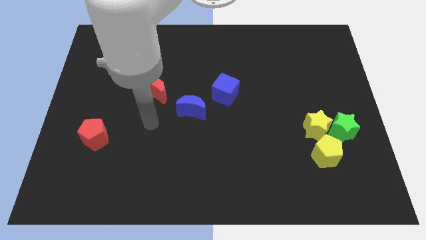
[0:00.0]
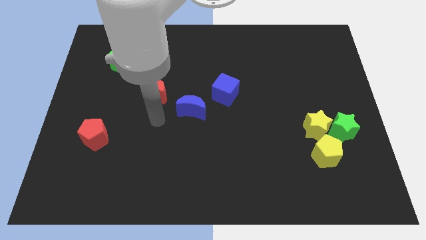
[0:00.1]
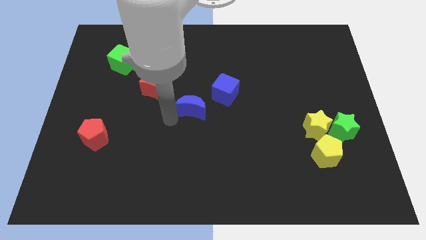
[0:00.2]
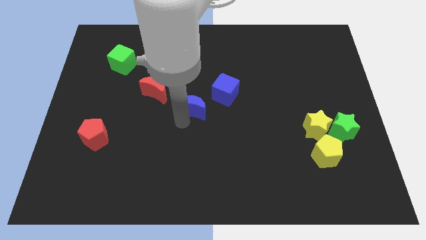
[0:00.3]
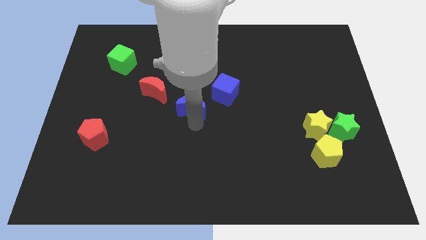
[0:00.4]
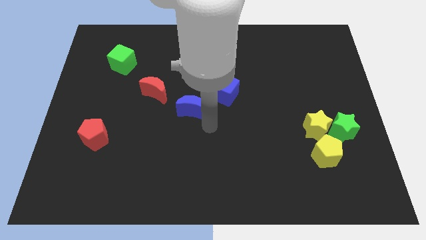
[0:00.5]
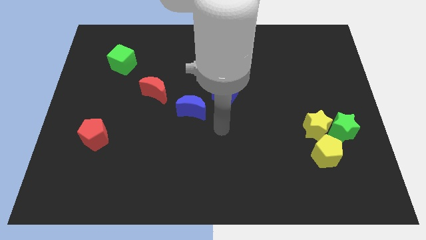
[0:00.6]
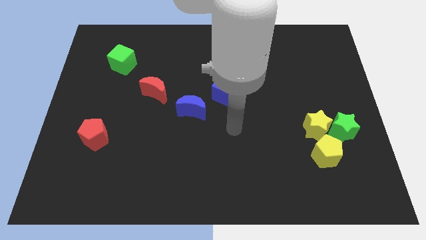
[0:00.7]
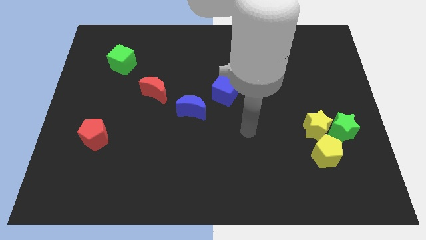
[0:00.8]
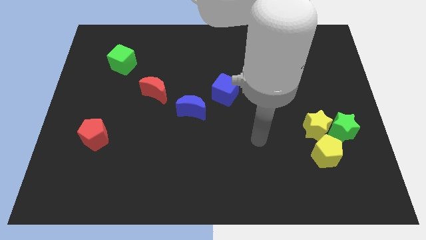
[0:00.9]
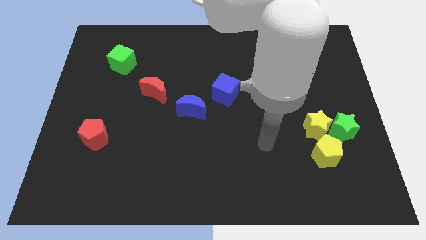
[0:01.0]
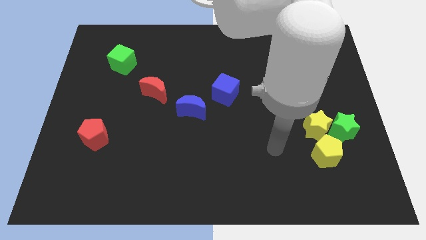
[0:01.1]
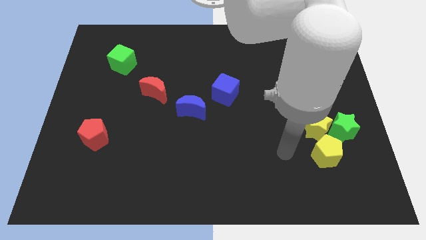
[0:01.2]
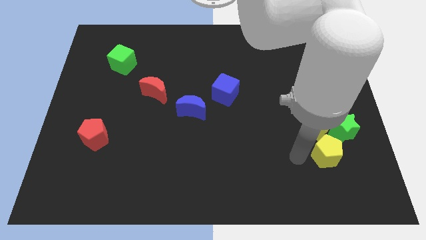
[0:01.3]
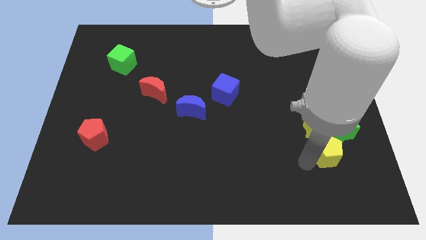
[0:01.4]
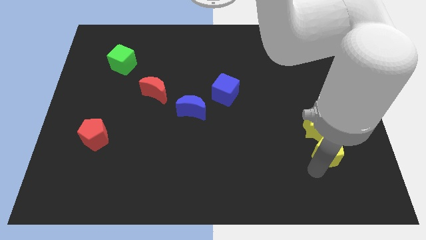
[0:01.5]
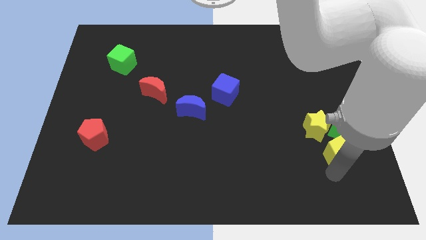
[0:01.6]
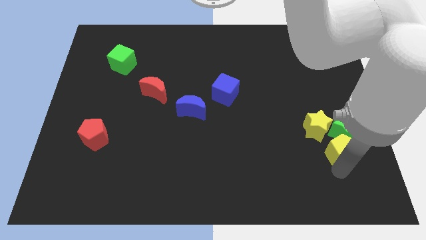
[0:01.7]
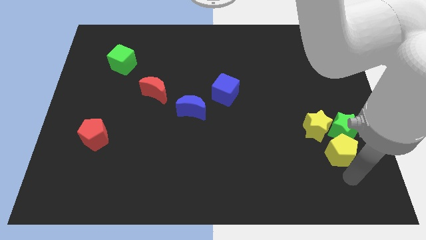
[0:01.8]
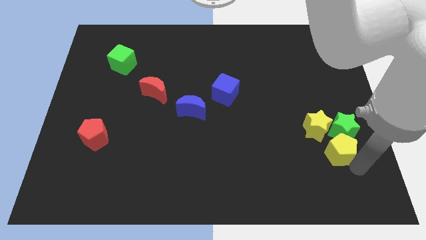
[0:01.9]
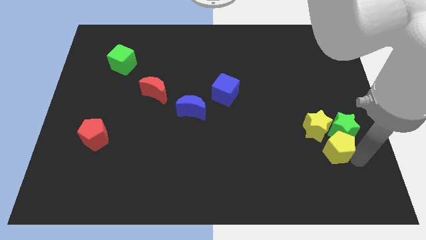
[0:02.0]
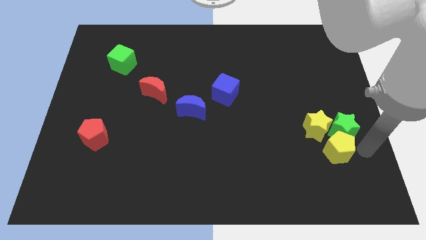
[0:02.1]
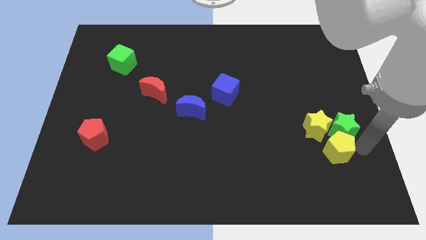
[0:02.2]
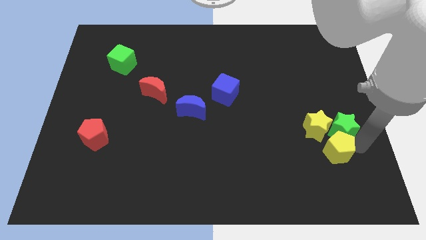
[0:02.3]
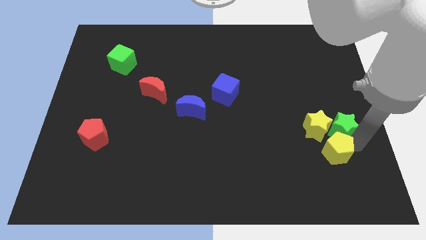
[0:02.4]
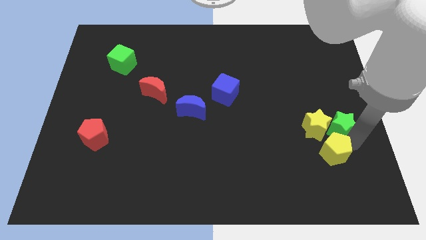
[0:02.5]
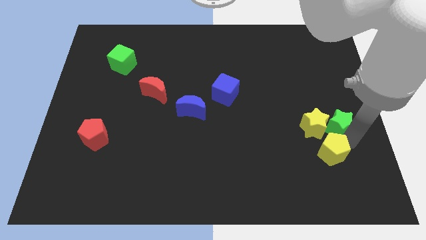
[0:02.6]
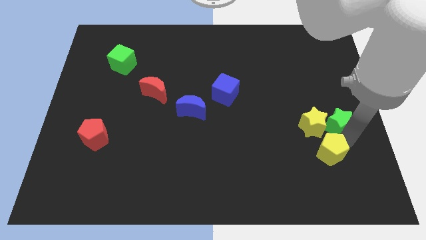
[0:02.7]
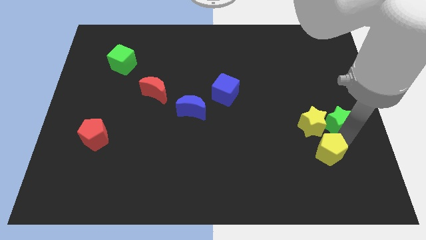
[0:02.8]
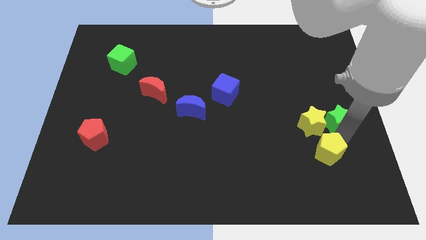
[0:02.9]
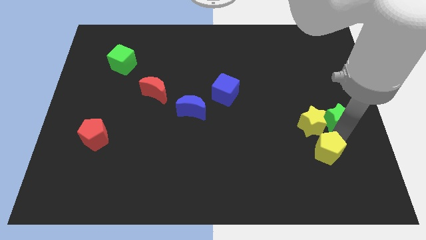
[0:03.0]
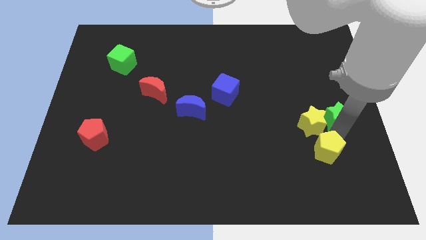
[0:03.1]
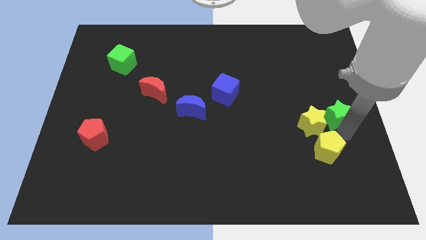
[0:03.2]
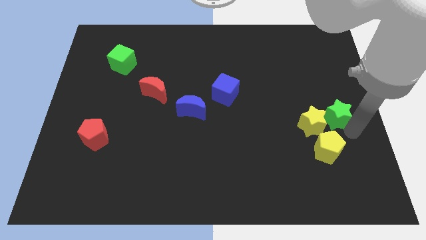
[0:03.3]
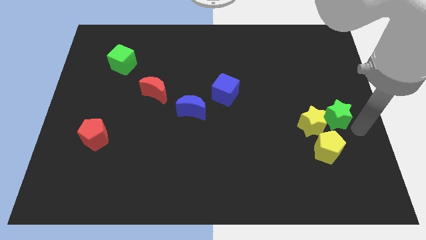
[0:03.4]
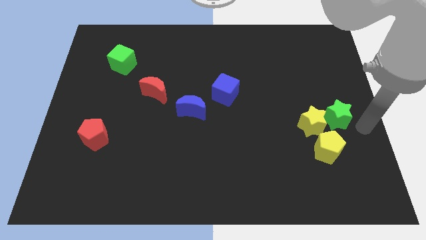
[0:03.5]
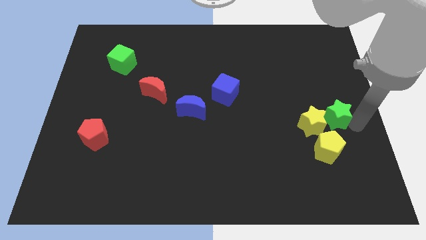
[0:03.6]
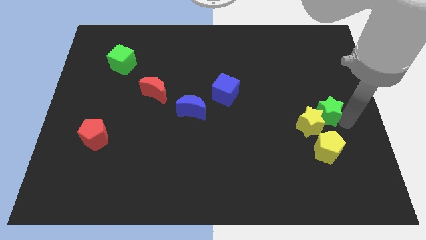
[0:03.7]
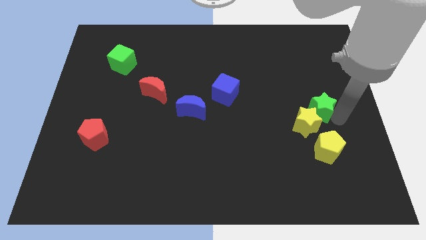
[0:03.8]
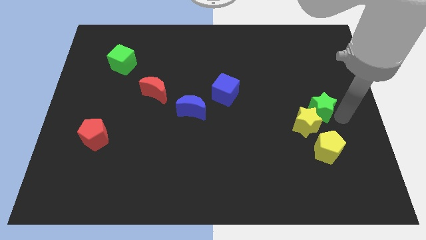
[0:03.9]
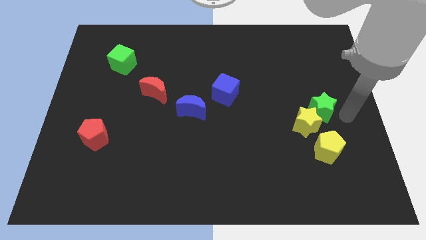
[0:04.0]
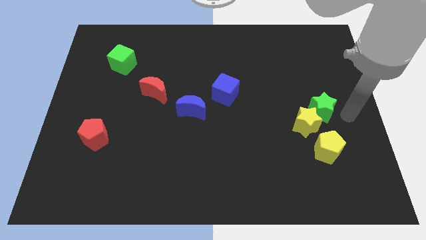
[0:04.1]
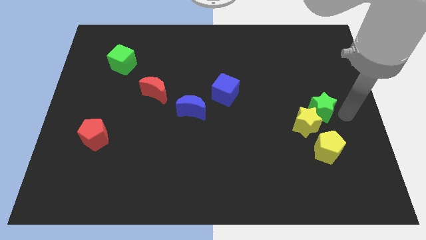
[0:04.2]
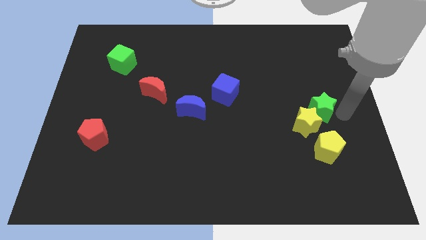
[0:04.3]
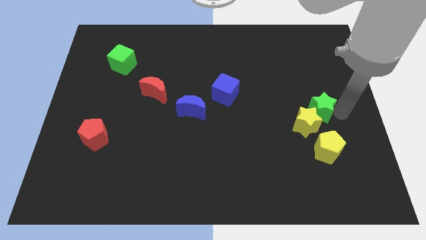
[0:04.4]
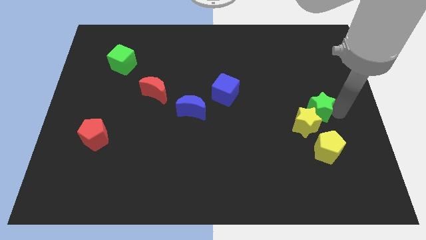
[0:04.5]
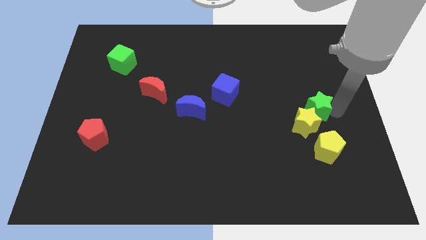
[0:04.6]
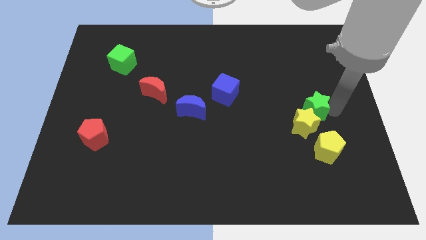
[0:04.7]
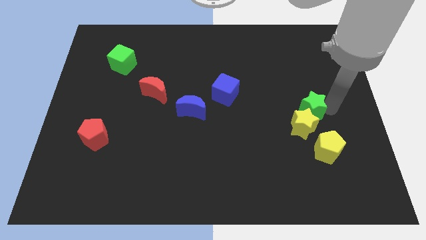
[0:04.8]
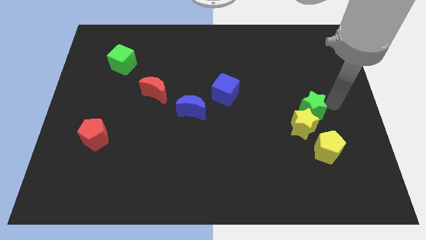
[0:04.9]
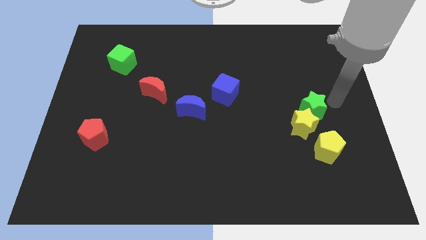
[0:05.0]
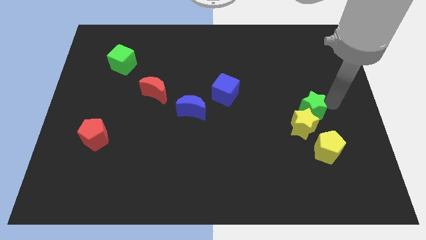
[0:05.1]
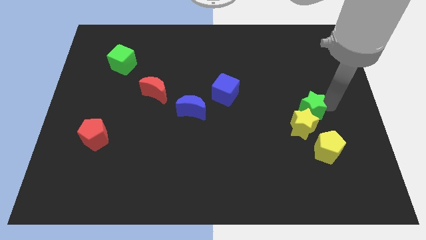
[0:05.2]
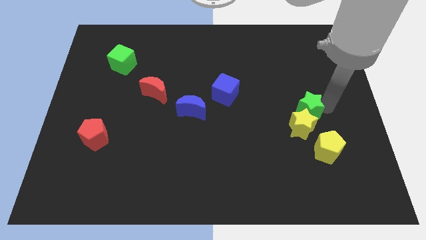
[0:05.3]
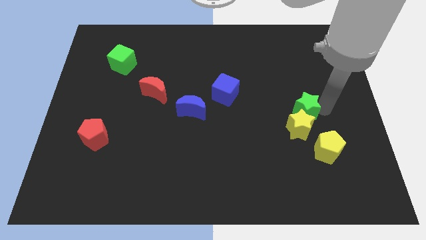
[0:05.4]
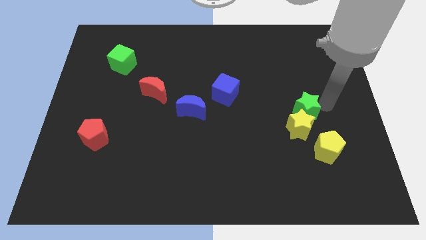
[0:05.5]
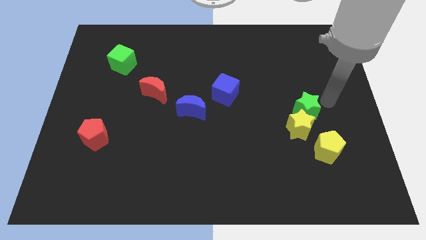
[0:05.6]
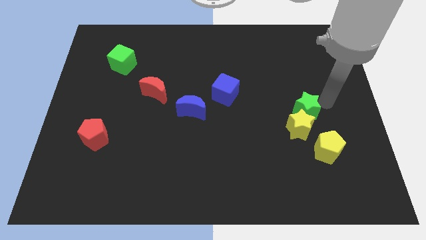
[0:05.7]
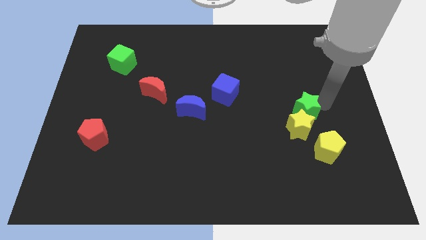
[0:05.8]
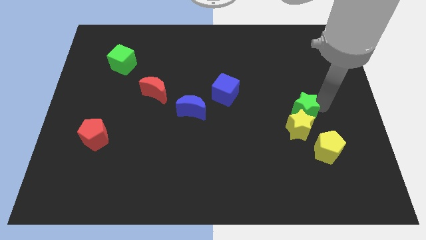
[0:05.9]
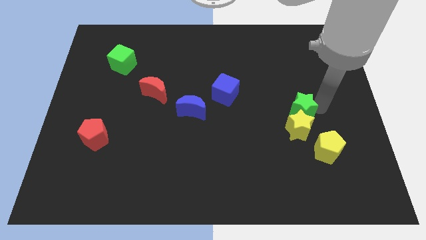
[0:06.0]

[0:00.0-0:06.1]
push the green star a little bit left

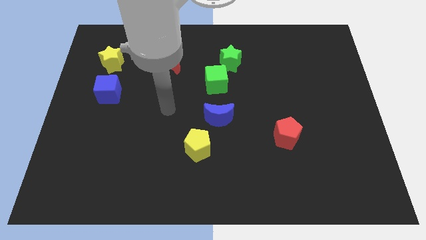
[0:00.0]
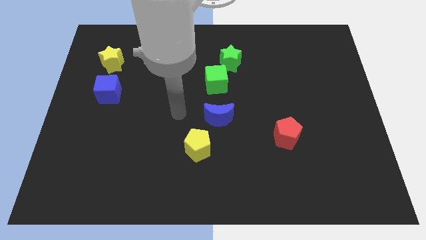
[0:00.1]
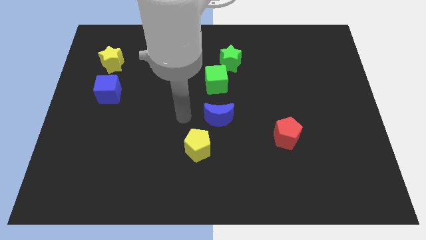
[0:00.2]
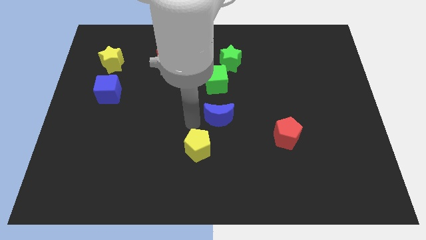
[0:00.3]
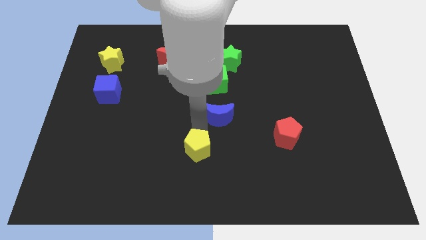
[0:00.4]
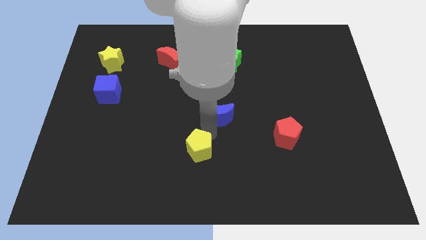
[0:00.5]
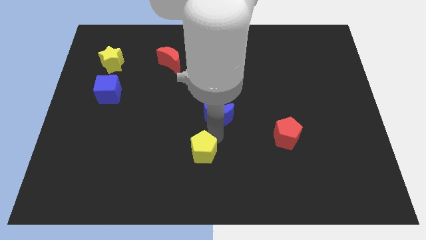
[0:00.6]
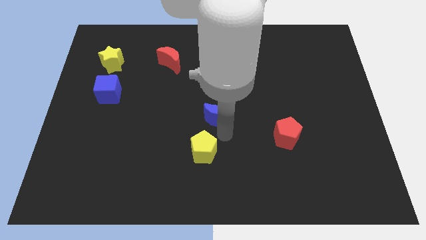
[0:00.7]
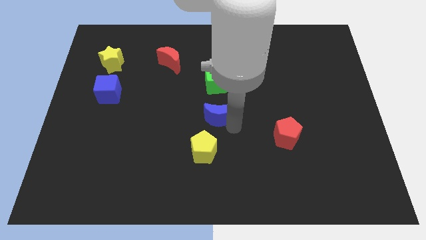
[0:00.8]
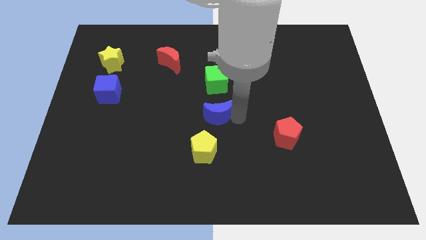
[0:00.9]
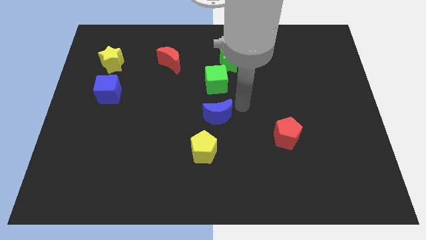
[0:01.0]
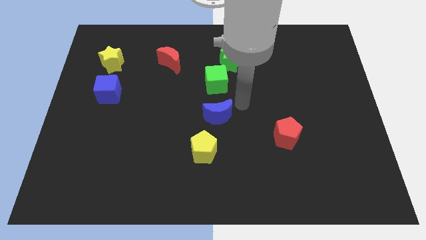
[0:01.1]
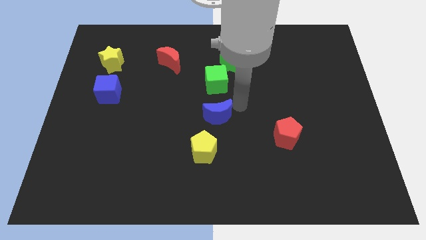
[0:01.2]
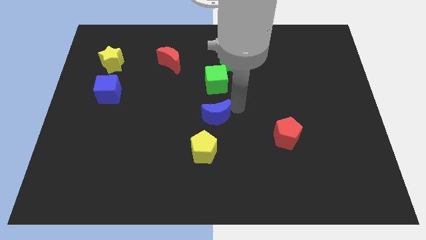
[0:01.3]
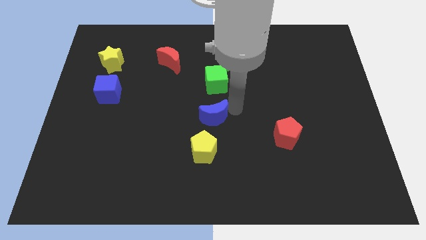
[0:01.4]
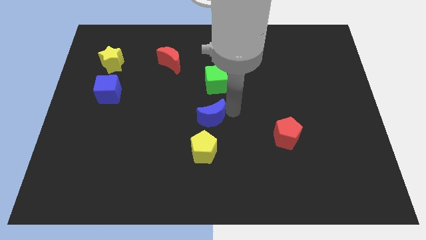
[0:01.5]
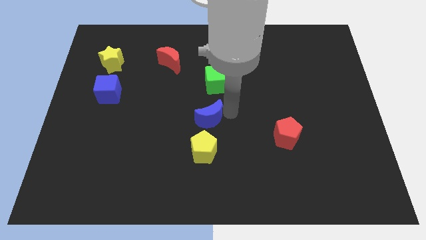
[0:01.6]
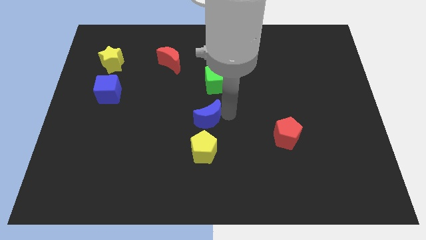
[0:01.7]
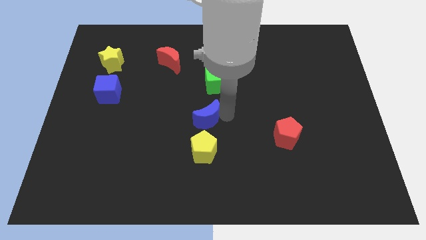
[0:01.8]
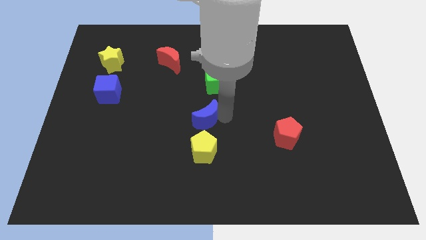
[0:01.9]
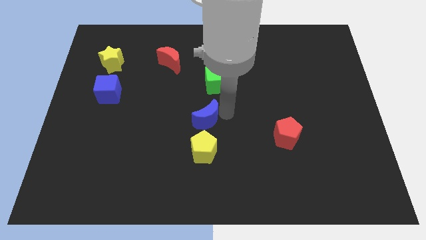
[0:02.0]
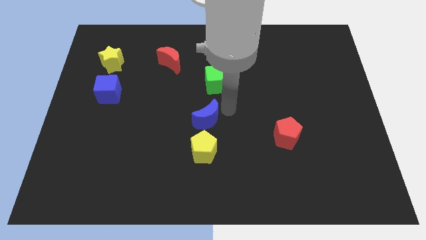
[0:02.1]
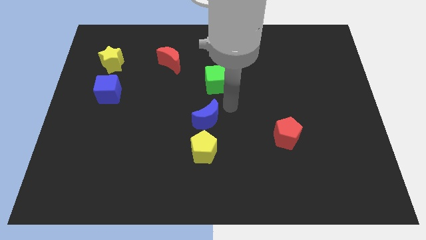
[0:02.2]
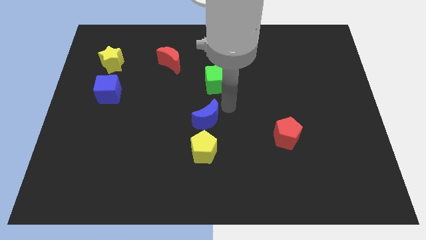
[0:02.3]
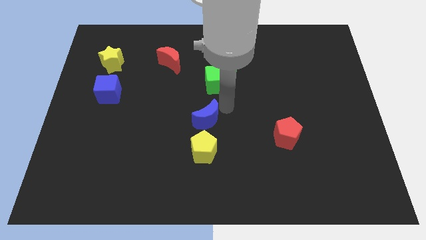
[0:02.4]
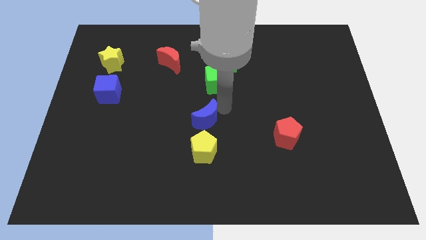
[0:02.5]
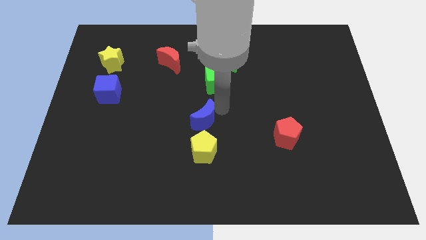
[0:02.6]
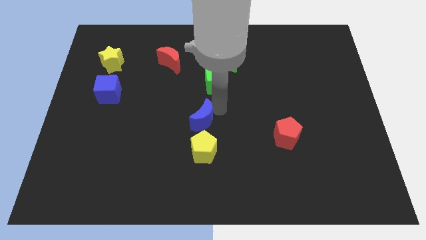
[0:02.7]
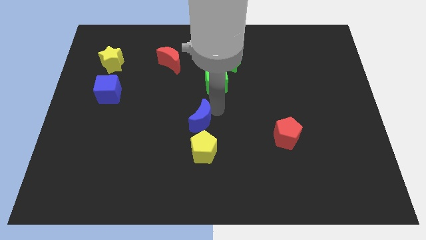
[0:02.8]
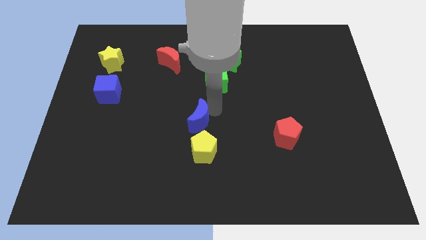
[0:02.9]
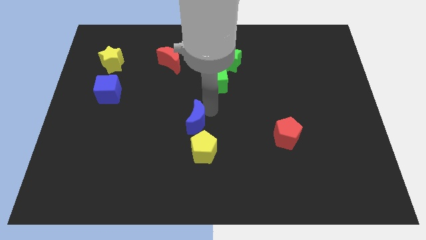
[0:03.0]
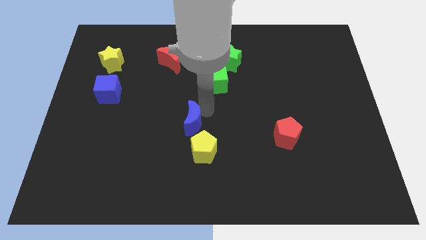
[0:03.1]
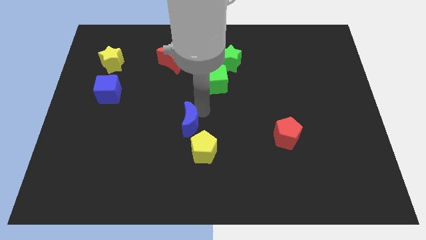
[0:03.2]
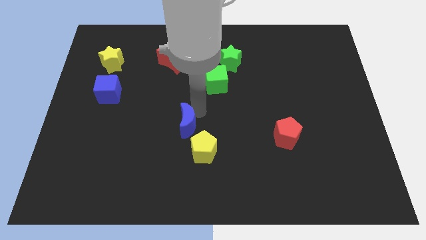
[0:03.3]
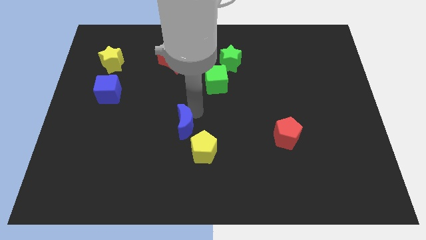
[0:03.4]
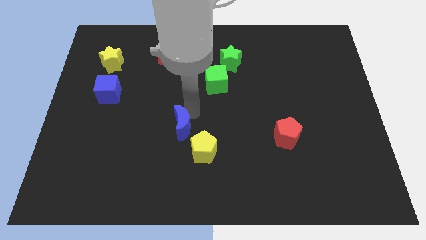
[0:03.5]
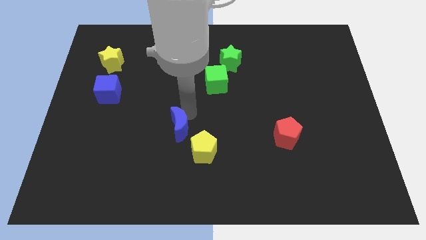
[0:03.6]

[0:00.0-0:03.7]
move the blue moon somewhat down and then to the left
